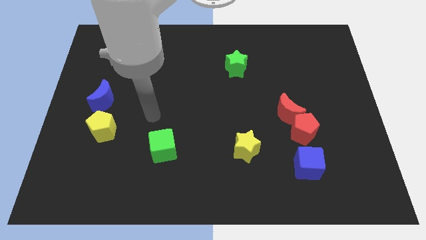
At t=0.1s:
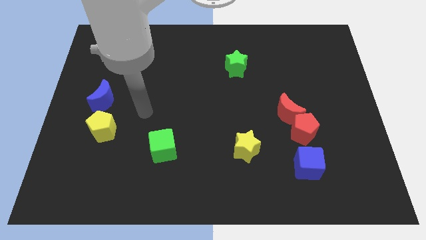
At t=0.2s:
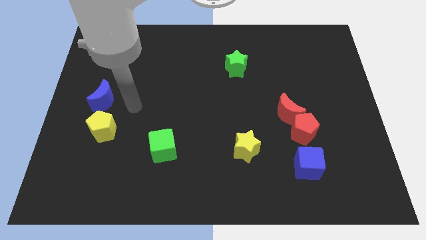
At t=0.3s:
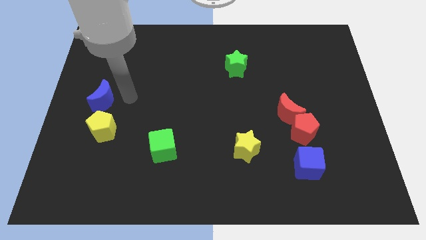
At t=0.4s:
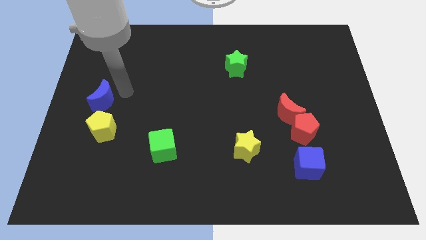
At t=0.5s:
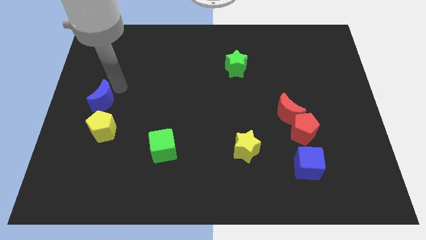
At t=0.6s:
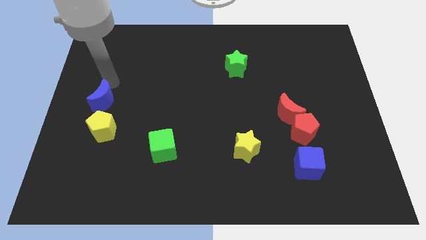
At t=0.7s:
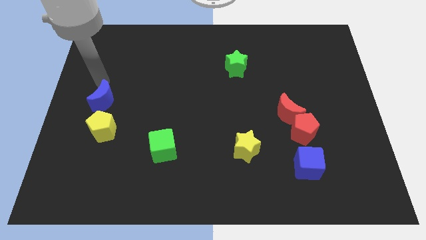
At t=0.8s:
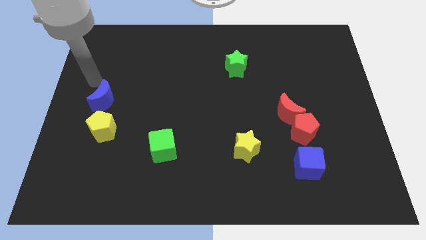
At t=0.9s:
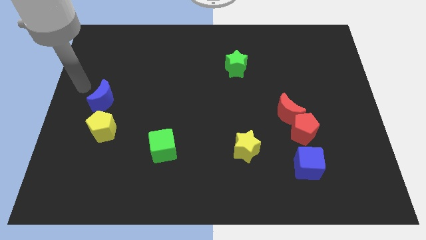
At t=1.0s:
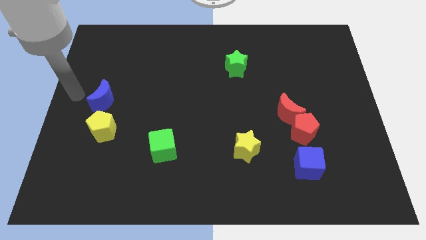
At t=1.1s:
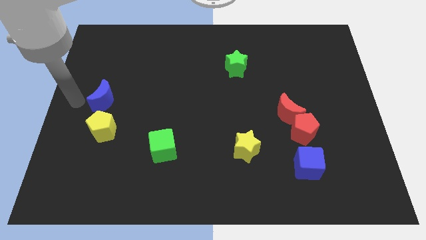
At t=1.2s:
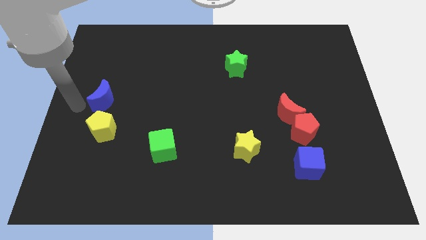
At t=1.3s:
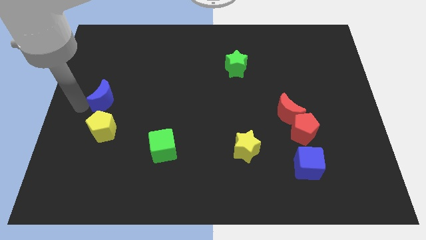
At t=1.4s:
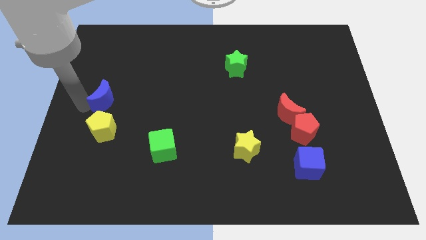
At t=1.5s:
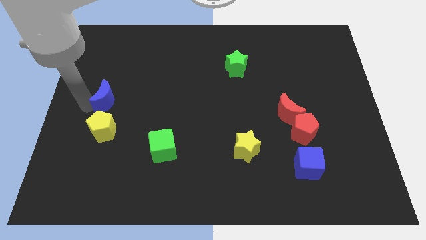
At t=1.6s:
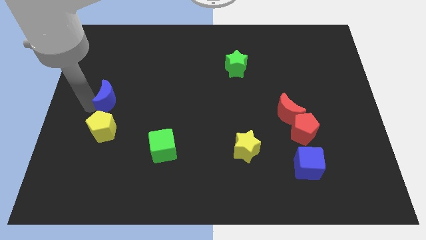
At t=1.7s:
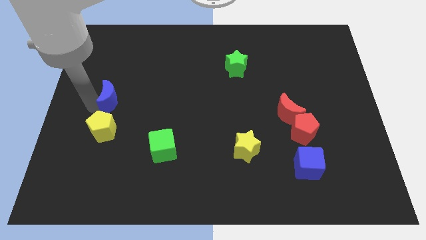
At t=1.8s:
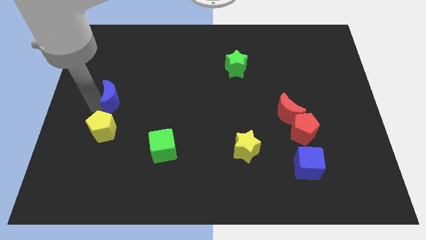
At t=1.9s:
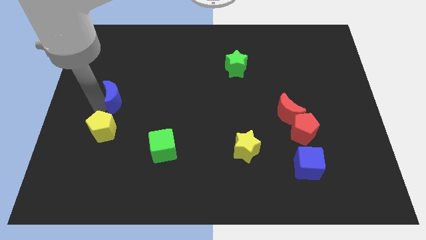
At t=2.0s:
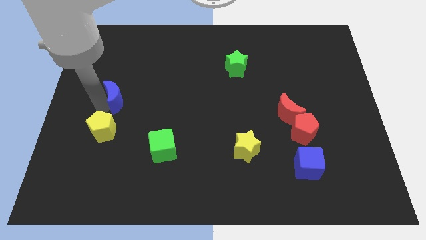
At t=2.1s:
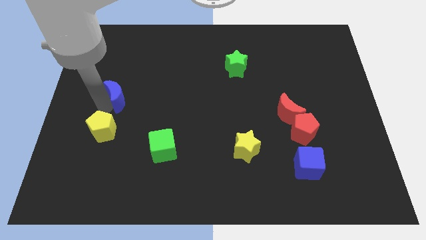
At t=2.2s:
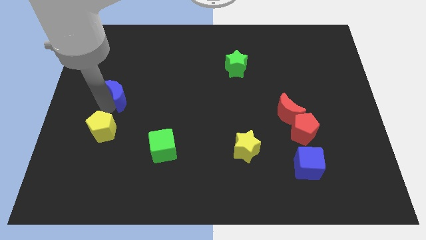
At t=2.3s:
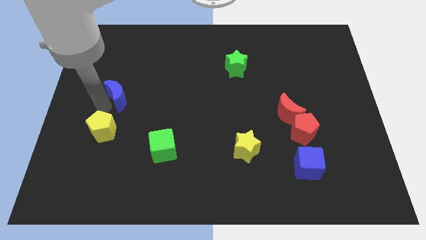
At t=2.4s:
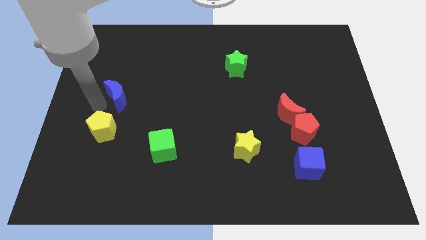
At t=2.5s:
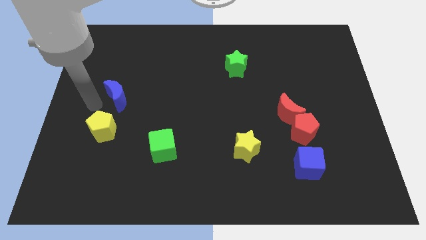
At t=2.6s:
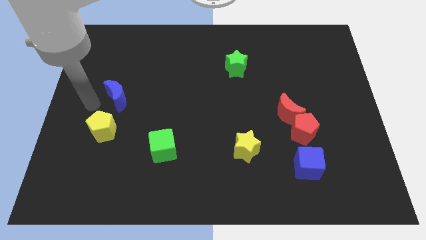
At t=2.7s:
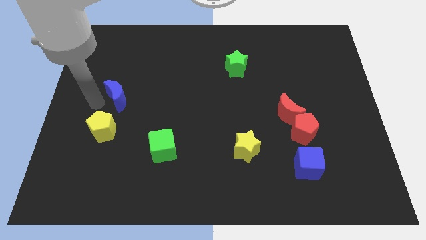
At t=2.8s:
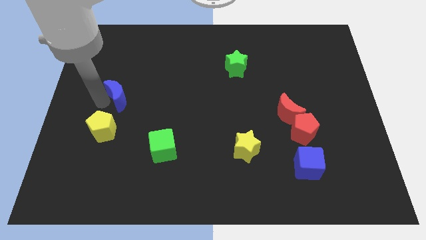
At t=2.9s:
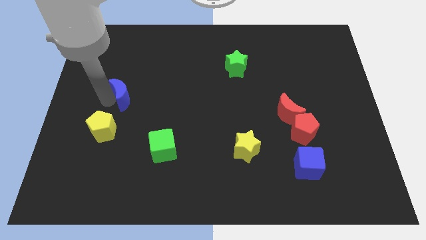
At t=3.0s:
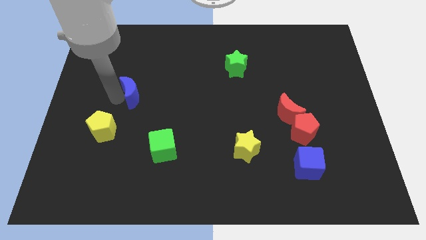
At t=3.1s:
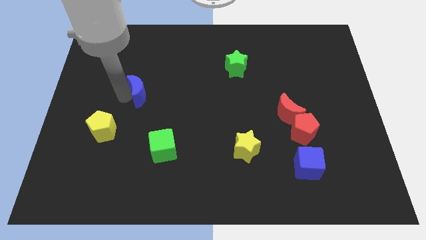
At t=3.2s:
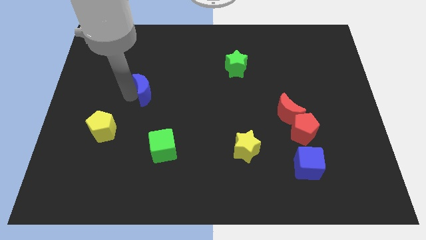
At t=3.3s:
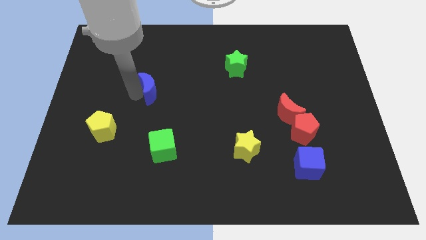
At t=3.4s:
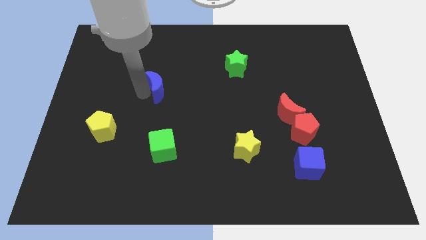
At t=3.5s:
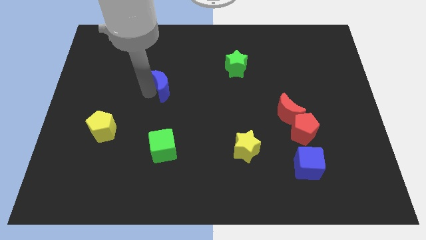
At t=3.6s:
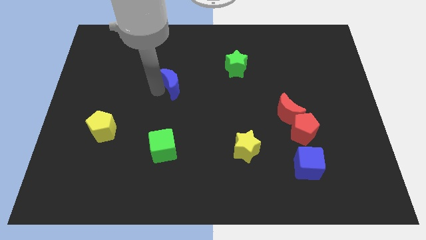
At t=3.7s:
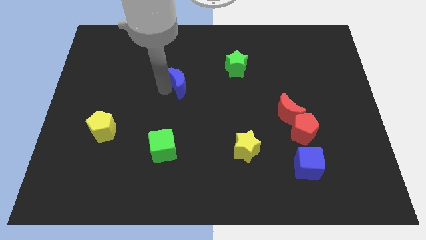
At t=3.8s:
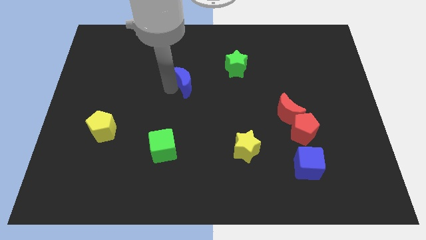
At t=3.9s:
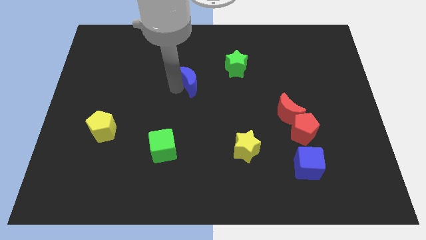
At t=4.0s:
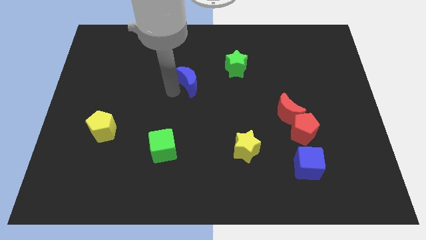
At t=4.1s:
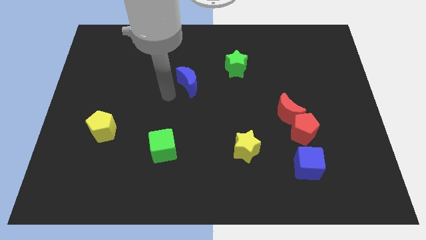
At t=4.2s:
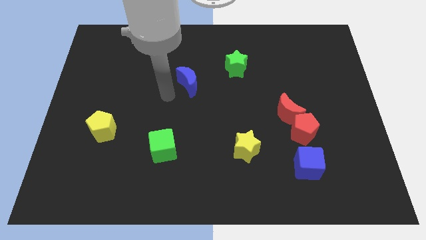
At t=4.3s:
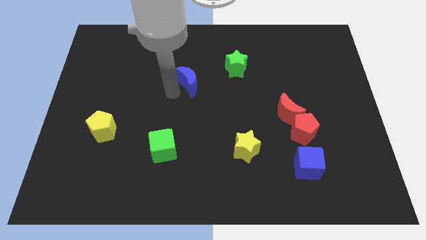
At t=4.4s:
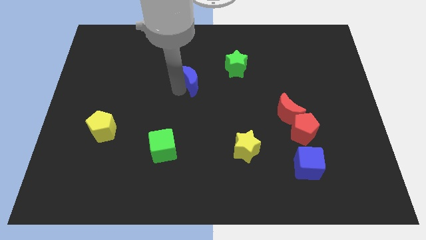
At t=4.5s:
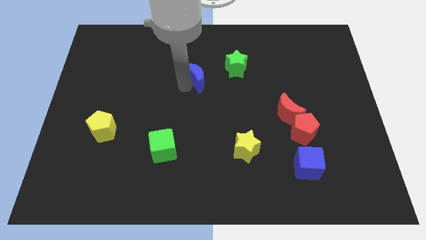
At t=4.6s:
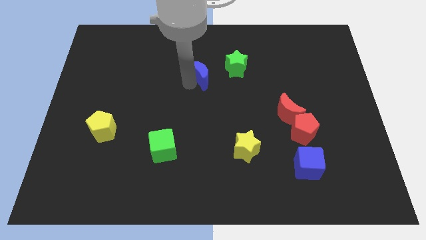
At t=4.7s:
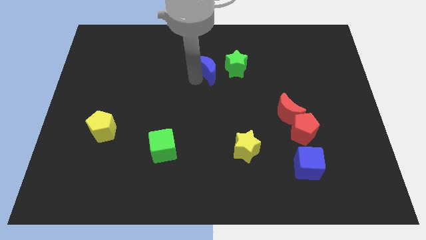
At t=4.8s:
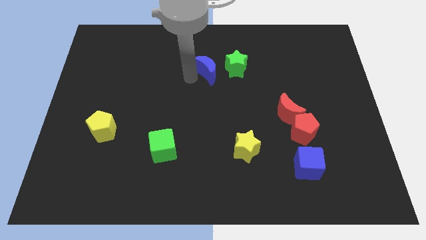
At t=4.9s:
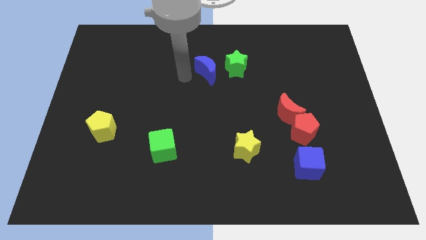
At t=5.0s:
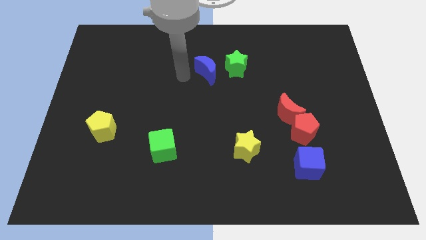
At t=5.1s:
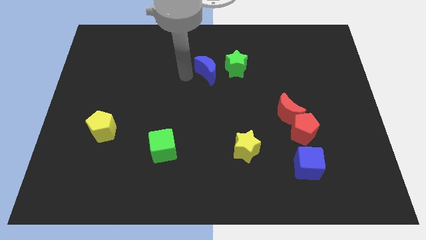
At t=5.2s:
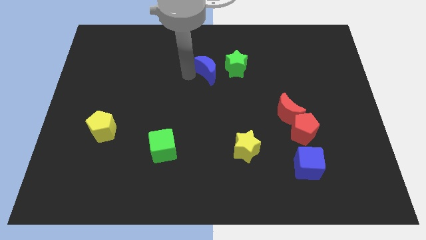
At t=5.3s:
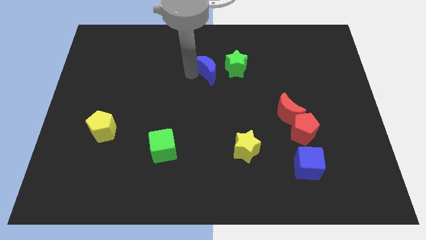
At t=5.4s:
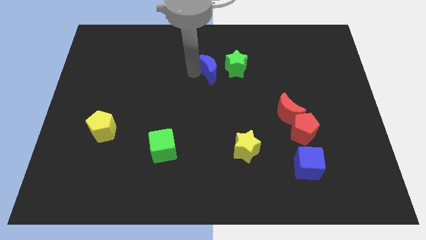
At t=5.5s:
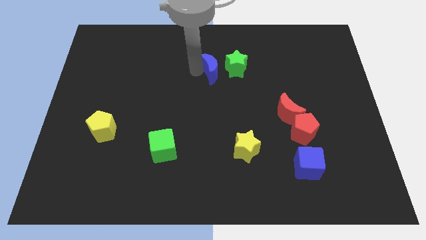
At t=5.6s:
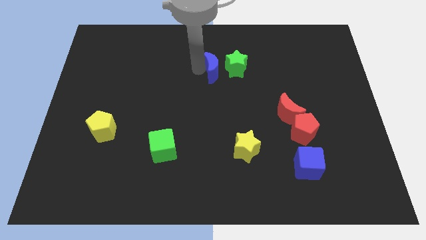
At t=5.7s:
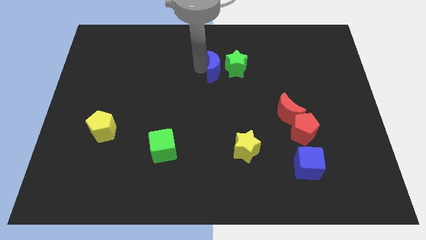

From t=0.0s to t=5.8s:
put the blue moon to the green star

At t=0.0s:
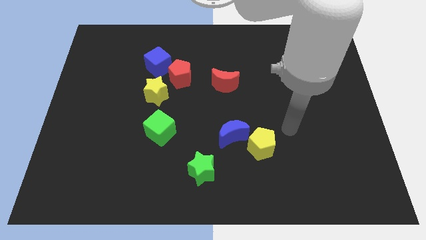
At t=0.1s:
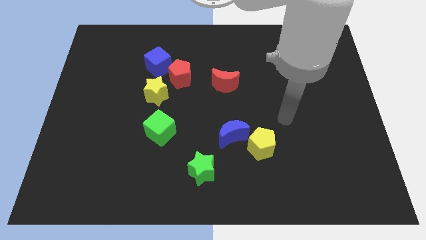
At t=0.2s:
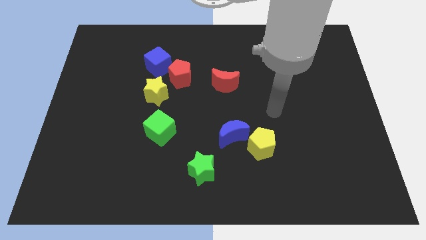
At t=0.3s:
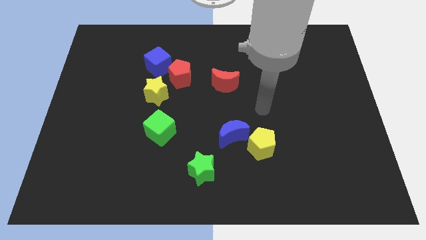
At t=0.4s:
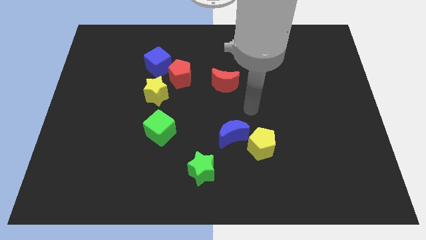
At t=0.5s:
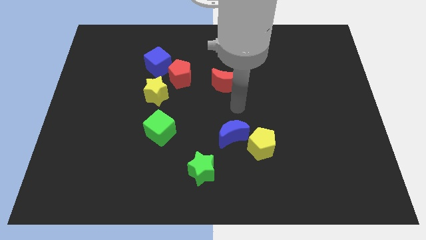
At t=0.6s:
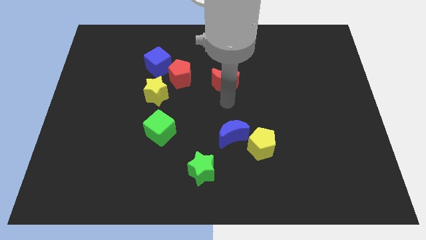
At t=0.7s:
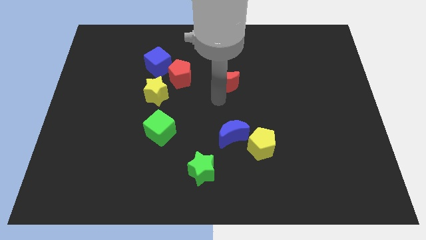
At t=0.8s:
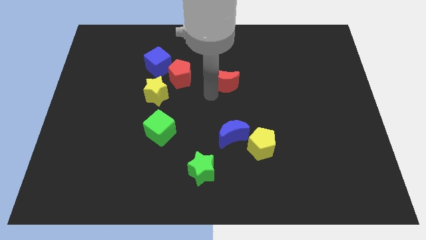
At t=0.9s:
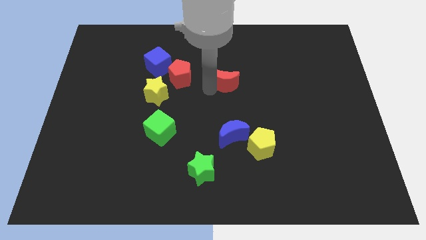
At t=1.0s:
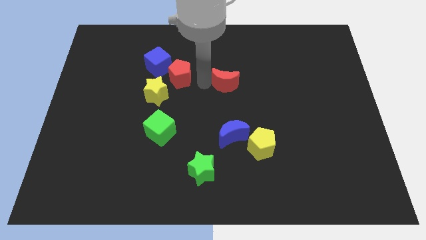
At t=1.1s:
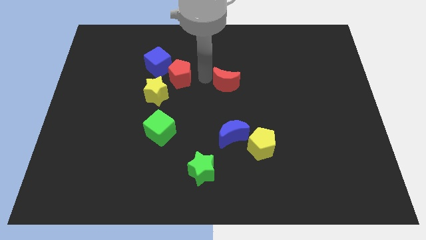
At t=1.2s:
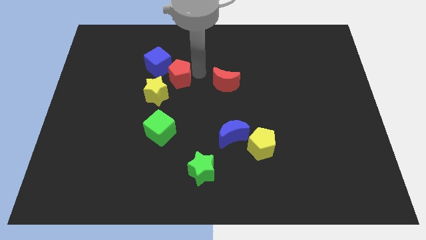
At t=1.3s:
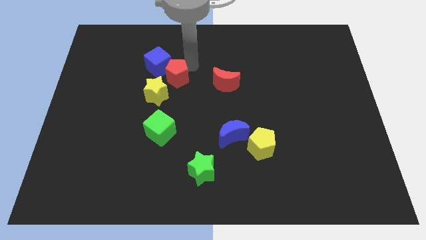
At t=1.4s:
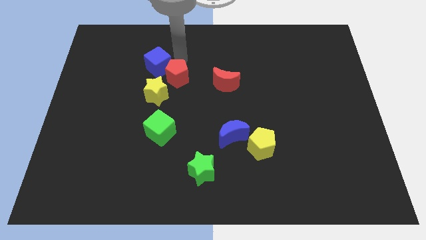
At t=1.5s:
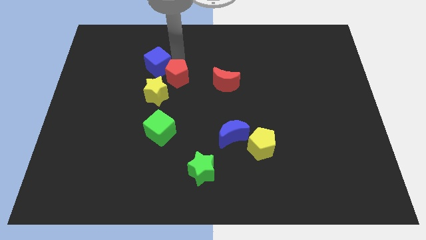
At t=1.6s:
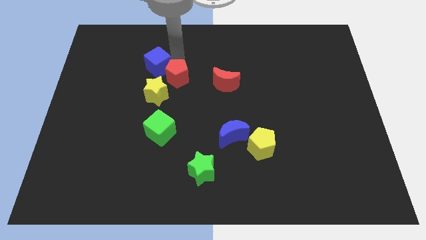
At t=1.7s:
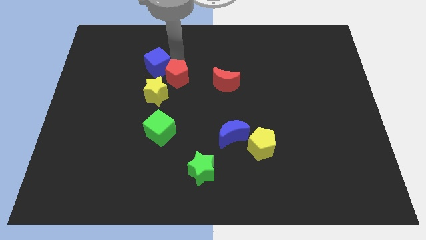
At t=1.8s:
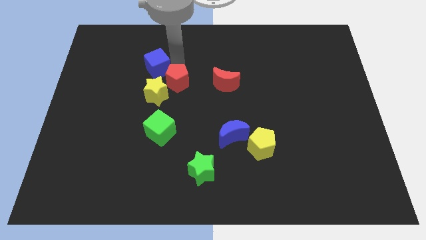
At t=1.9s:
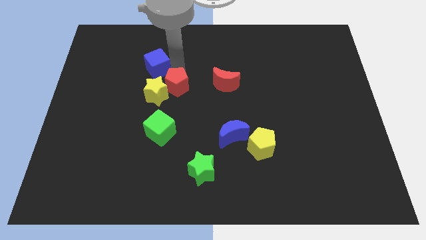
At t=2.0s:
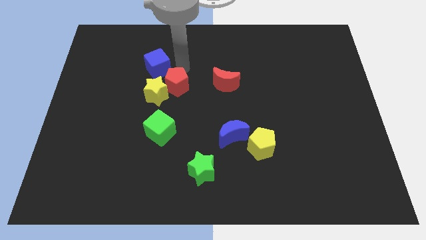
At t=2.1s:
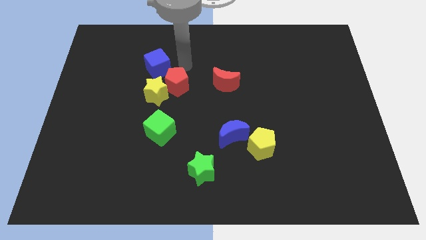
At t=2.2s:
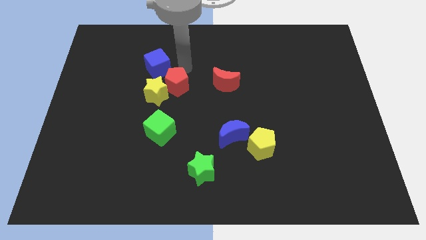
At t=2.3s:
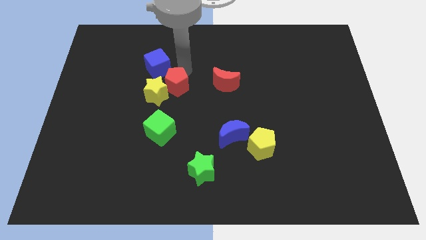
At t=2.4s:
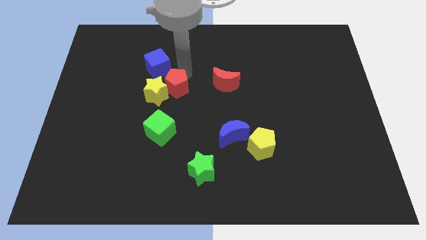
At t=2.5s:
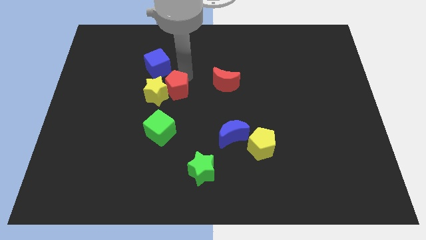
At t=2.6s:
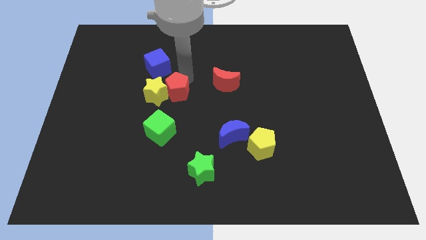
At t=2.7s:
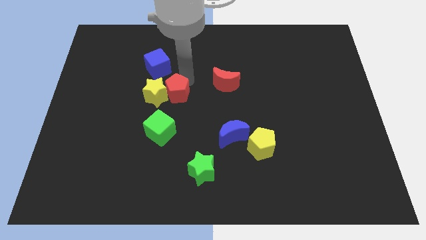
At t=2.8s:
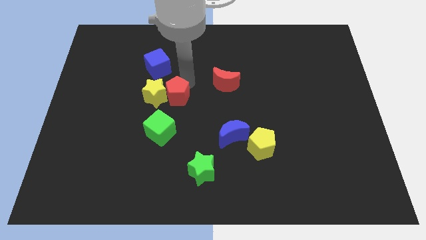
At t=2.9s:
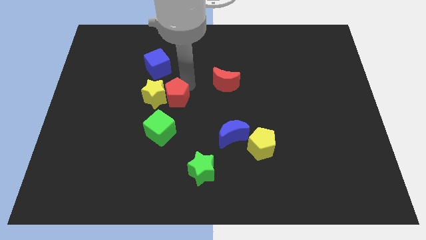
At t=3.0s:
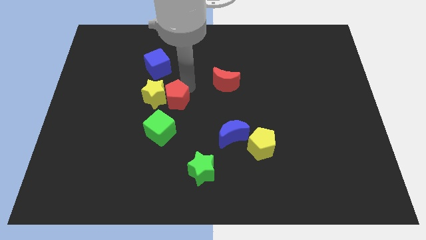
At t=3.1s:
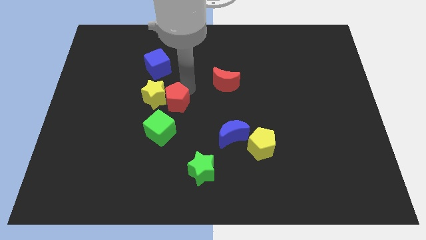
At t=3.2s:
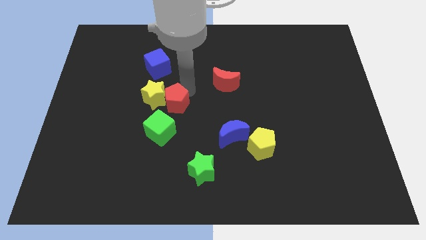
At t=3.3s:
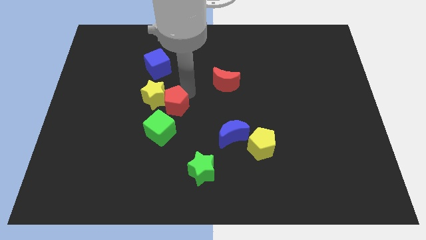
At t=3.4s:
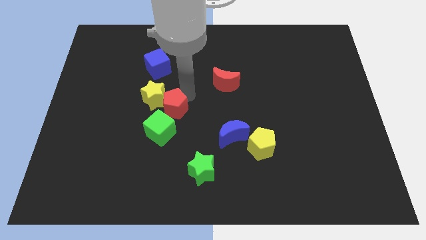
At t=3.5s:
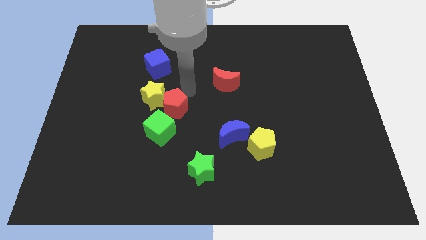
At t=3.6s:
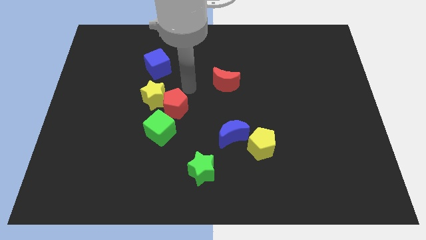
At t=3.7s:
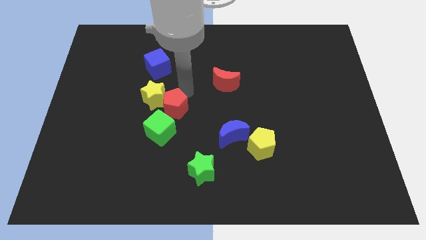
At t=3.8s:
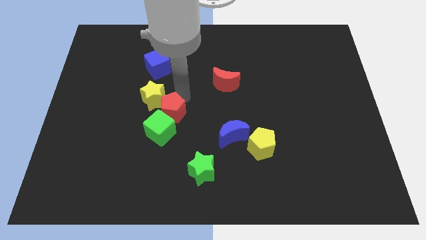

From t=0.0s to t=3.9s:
put the red pentagon next to the green cube
